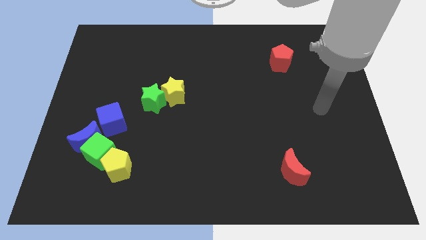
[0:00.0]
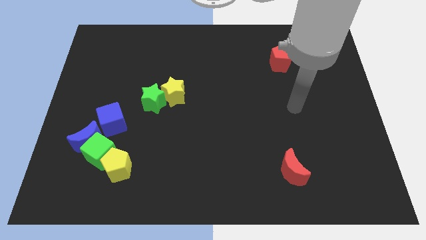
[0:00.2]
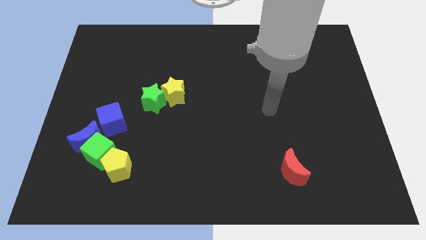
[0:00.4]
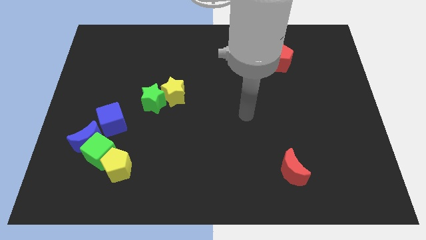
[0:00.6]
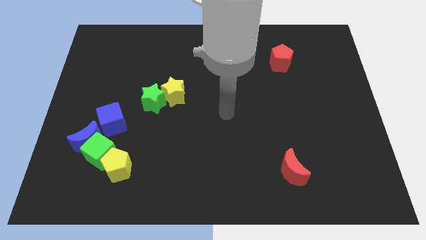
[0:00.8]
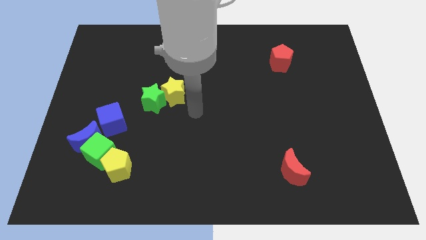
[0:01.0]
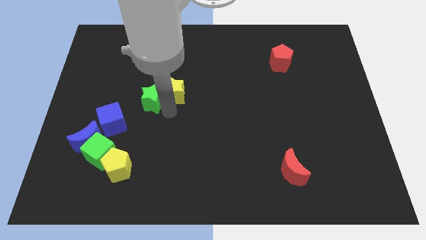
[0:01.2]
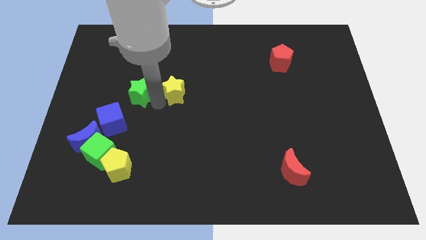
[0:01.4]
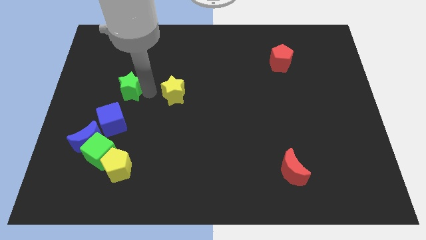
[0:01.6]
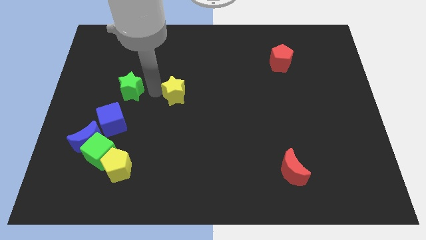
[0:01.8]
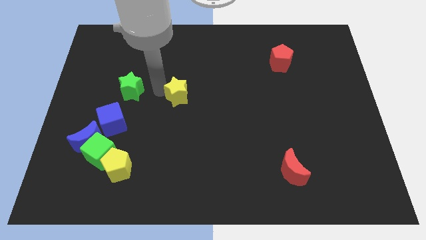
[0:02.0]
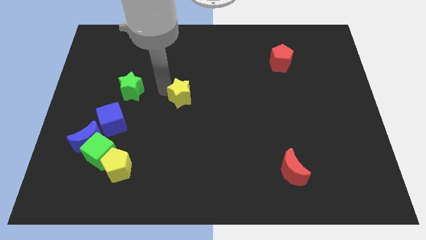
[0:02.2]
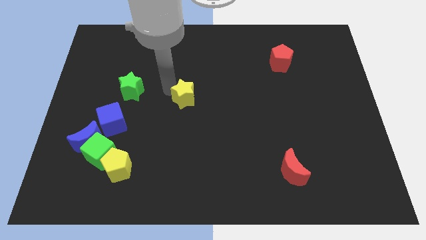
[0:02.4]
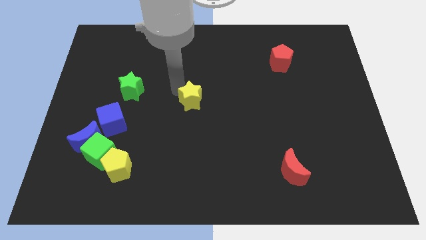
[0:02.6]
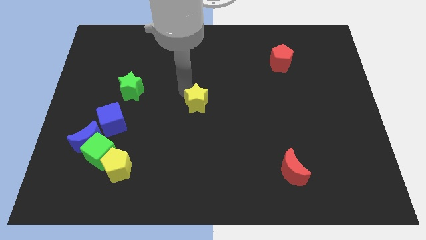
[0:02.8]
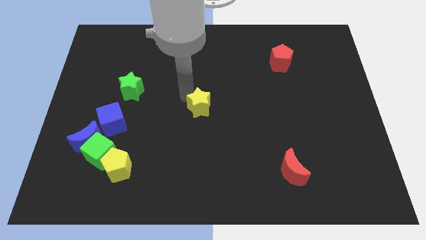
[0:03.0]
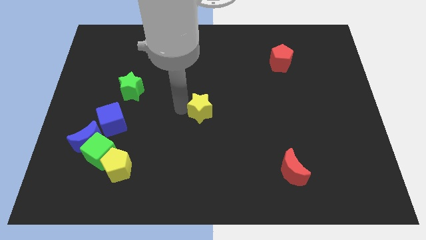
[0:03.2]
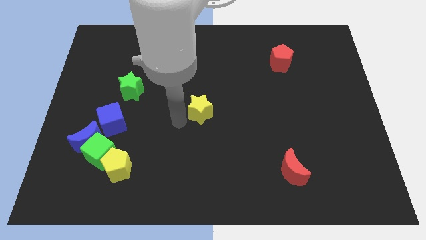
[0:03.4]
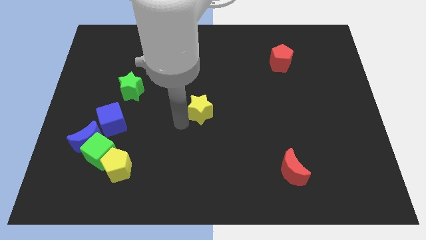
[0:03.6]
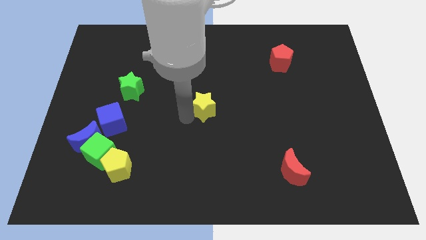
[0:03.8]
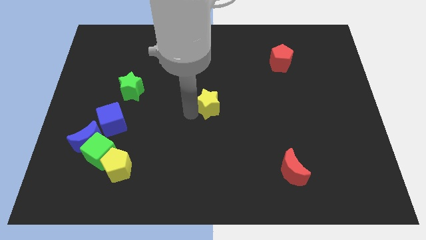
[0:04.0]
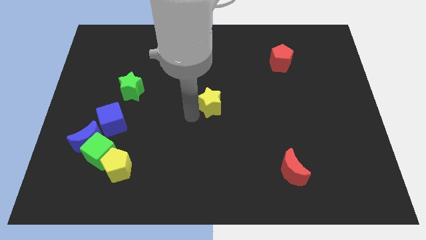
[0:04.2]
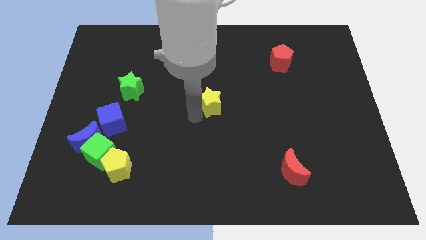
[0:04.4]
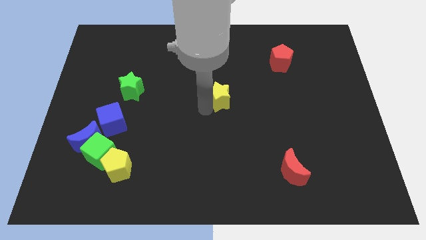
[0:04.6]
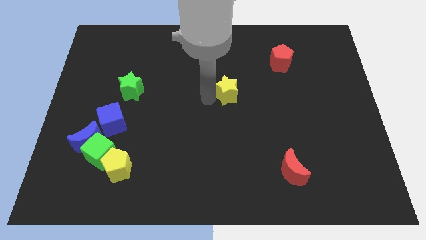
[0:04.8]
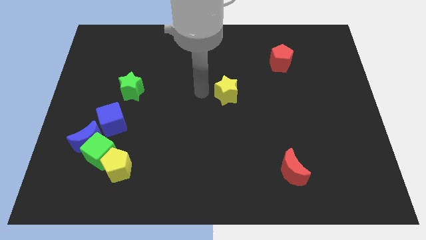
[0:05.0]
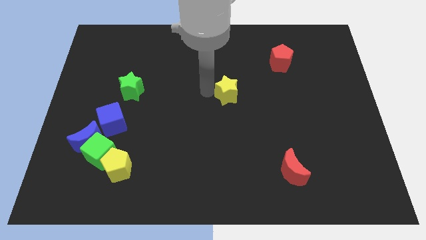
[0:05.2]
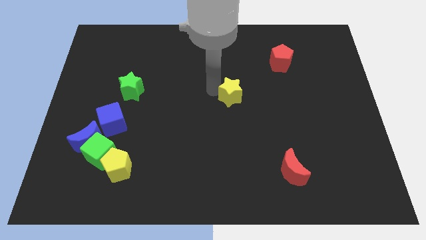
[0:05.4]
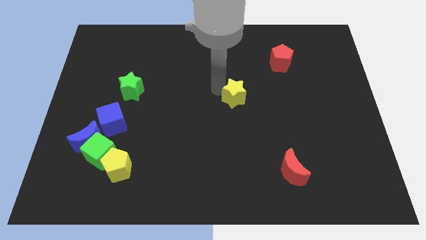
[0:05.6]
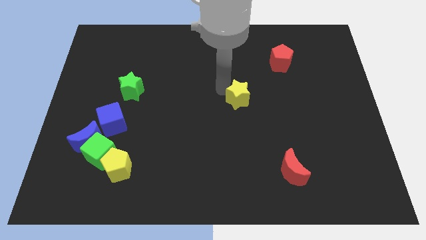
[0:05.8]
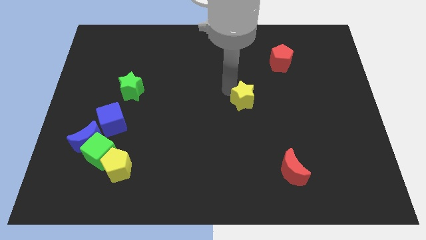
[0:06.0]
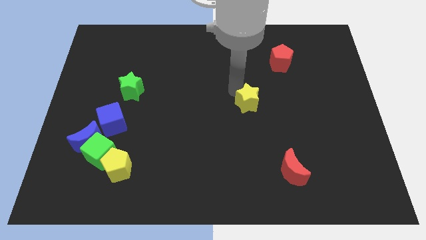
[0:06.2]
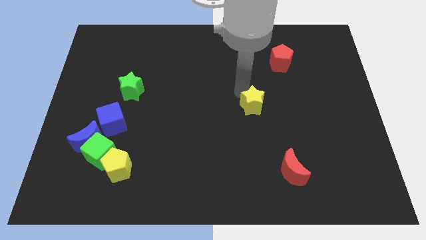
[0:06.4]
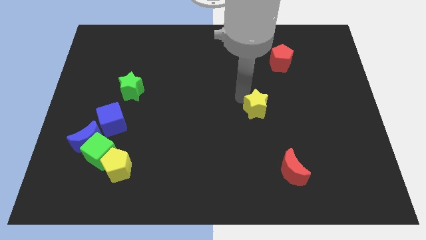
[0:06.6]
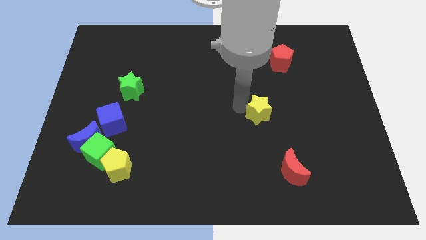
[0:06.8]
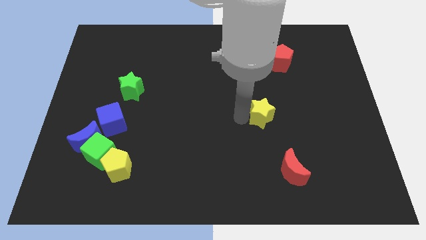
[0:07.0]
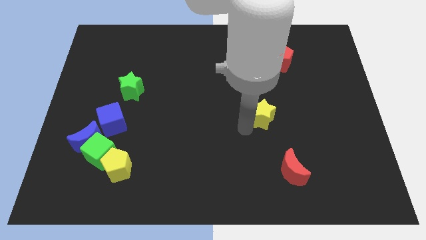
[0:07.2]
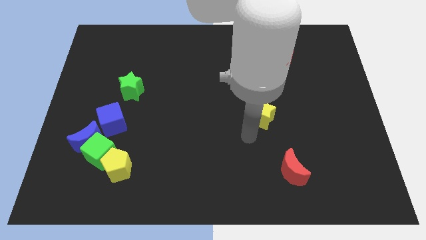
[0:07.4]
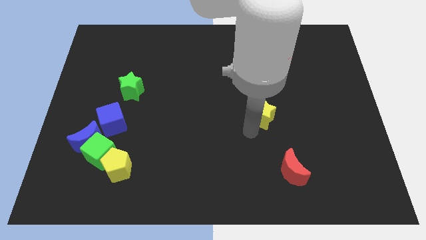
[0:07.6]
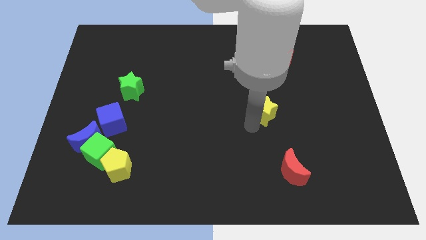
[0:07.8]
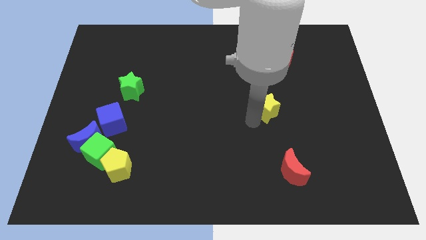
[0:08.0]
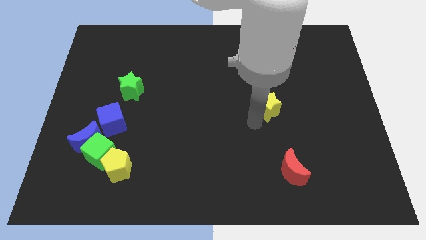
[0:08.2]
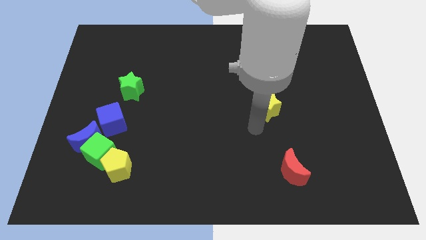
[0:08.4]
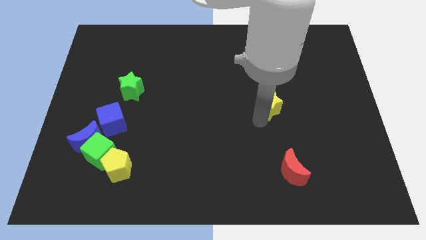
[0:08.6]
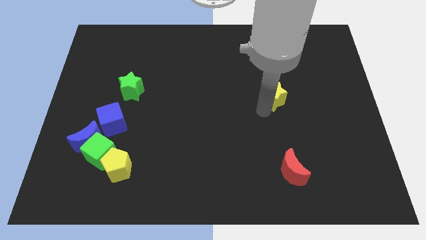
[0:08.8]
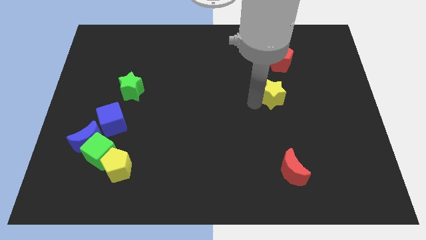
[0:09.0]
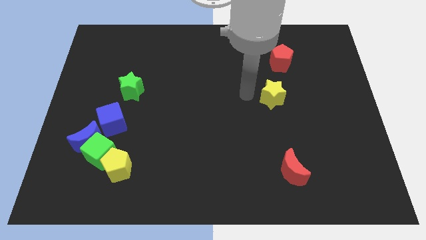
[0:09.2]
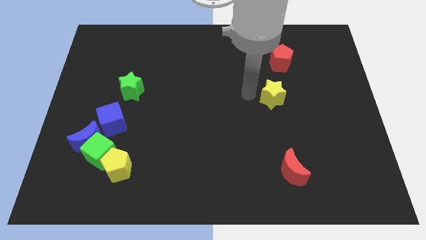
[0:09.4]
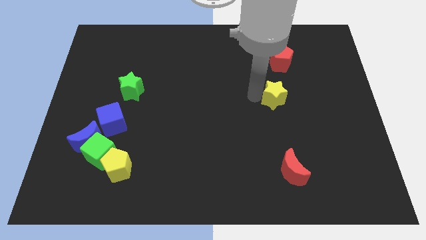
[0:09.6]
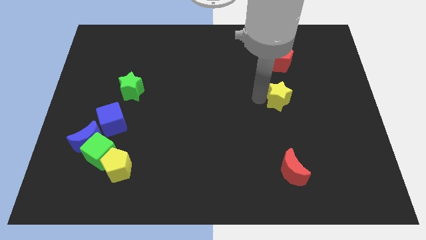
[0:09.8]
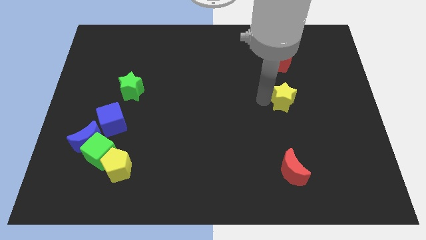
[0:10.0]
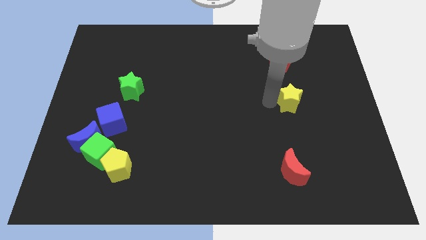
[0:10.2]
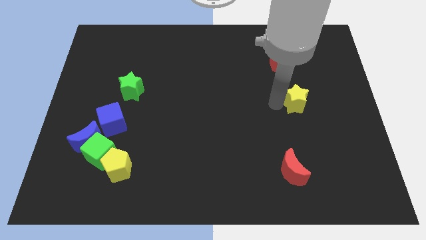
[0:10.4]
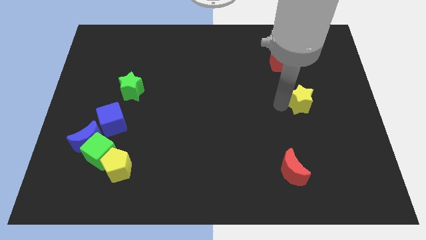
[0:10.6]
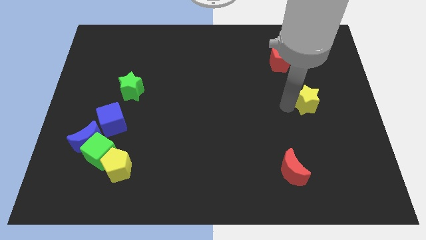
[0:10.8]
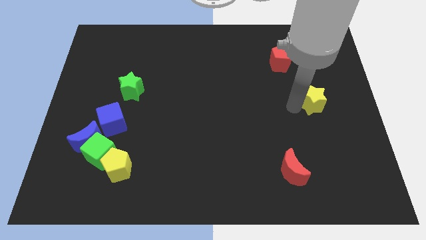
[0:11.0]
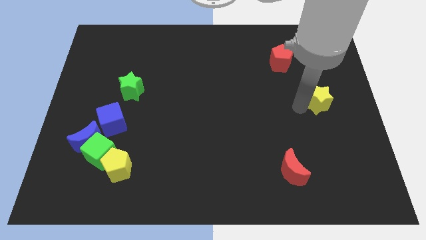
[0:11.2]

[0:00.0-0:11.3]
put the yellow star to the center right
